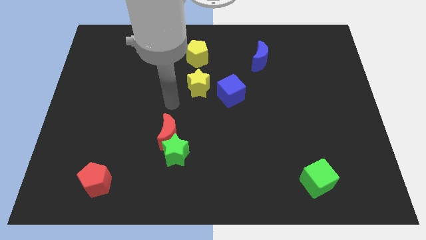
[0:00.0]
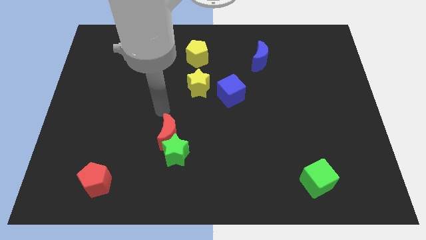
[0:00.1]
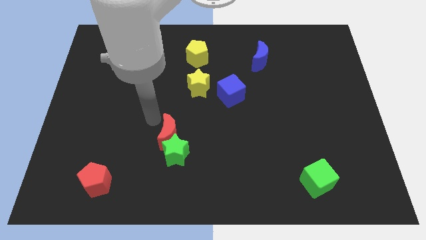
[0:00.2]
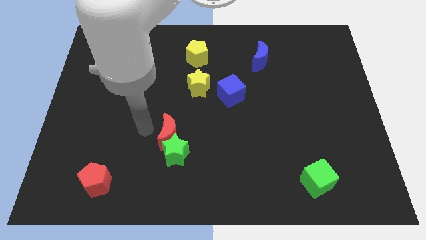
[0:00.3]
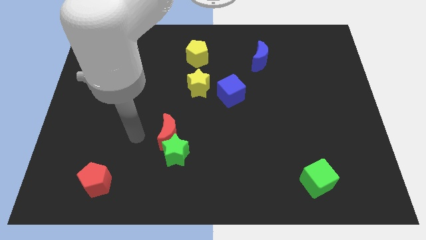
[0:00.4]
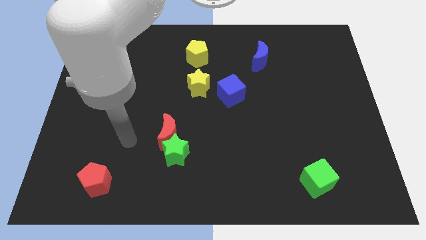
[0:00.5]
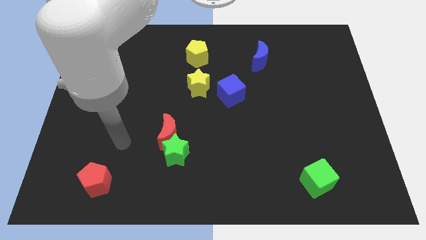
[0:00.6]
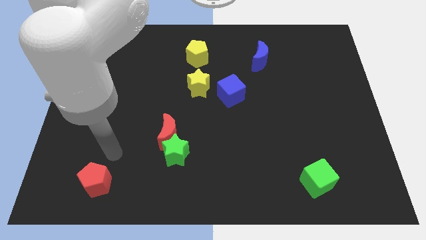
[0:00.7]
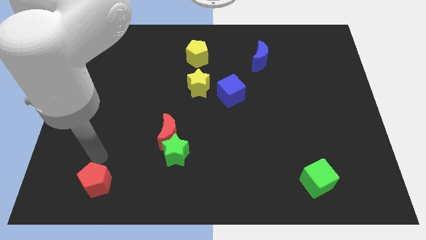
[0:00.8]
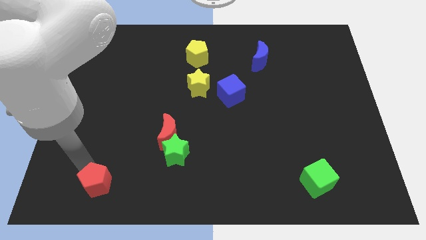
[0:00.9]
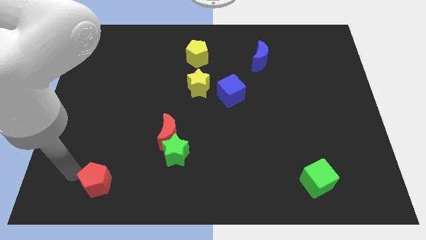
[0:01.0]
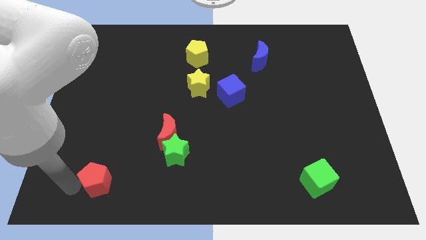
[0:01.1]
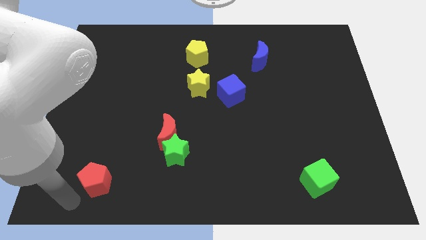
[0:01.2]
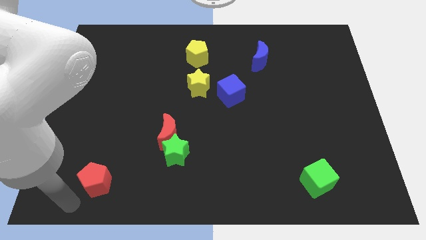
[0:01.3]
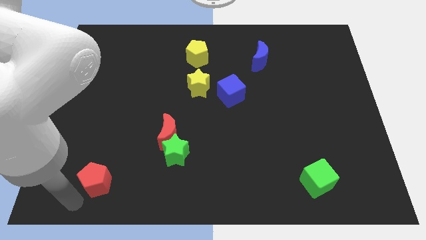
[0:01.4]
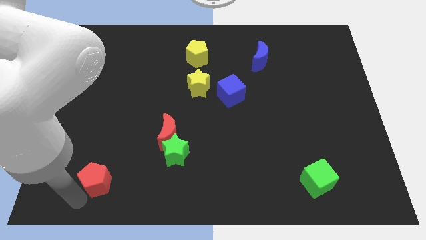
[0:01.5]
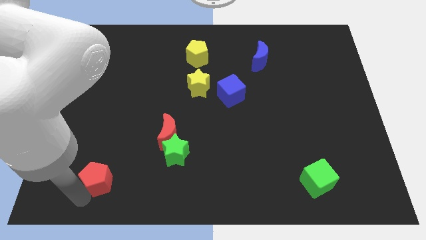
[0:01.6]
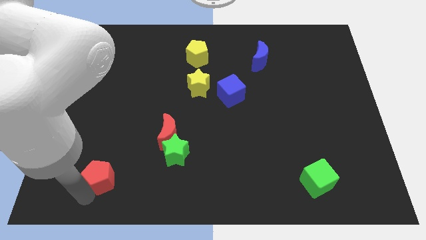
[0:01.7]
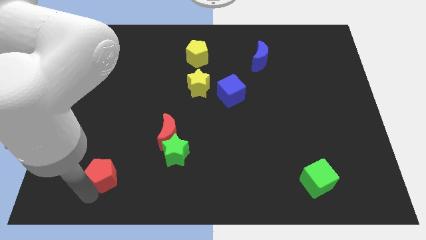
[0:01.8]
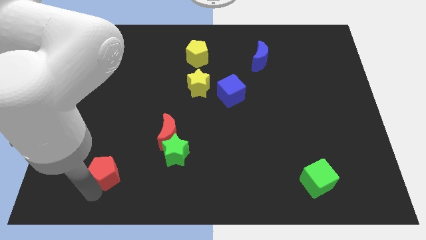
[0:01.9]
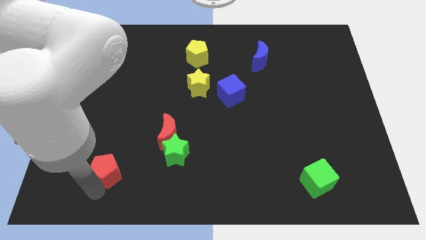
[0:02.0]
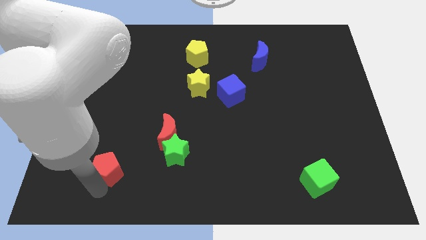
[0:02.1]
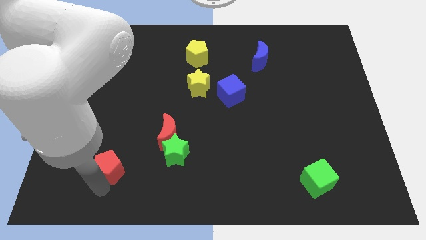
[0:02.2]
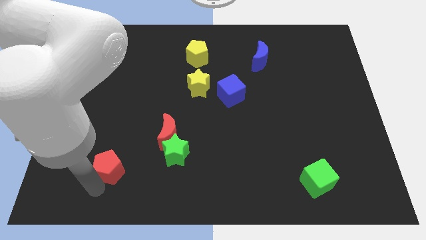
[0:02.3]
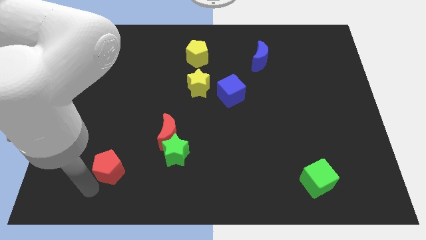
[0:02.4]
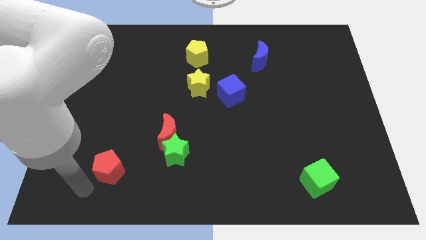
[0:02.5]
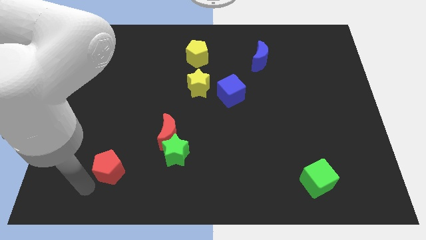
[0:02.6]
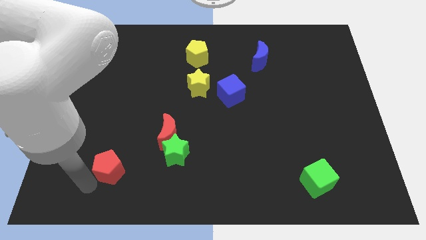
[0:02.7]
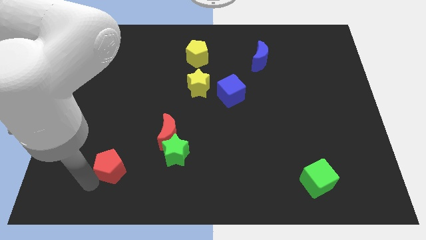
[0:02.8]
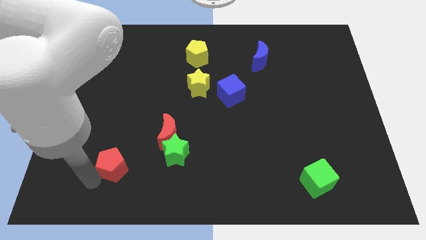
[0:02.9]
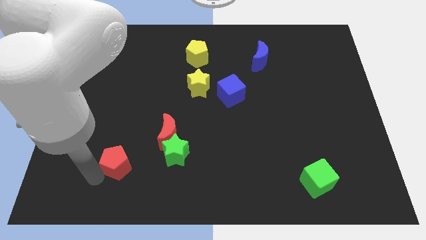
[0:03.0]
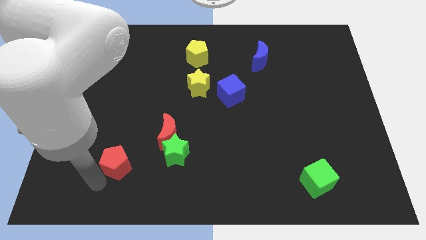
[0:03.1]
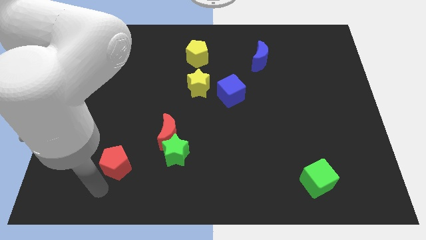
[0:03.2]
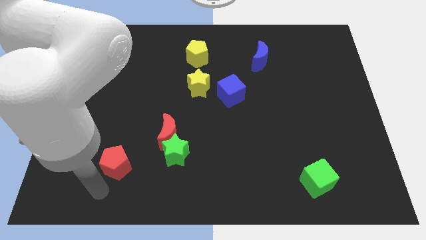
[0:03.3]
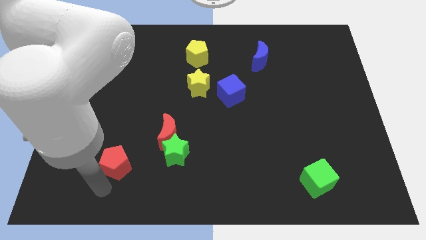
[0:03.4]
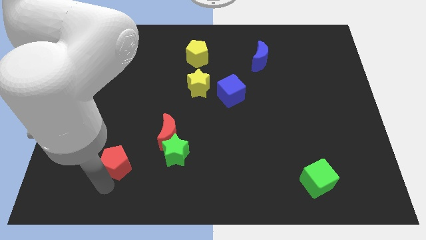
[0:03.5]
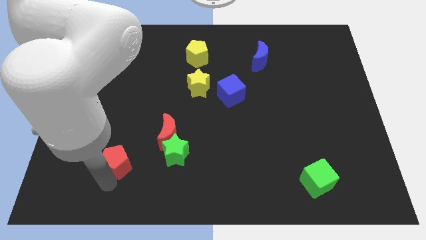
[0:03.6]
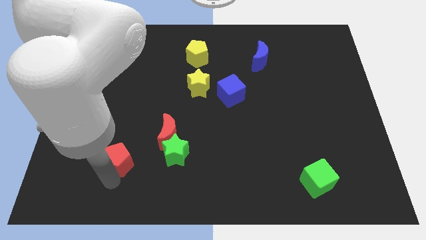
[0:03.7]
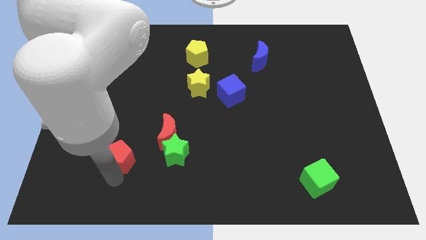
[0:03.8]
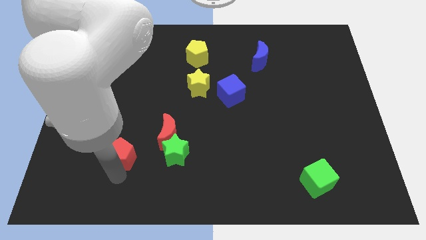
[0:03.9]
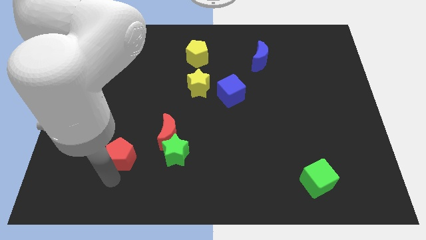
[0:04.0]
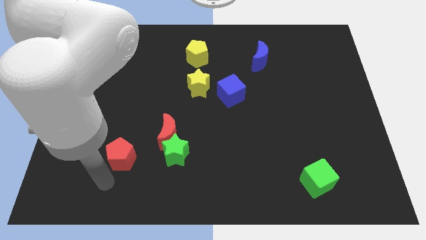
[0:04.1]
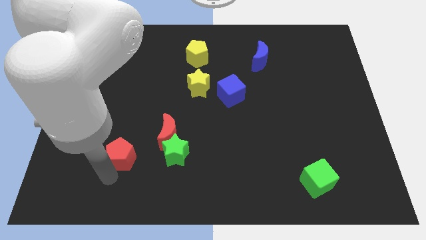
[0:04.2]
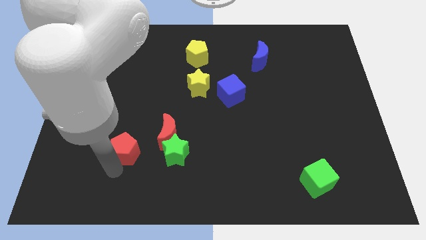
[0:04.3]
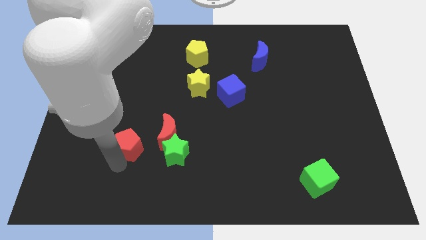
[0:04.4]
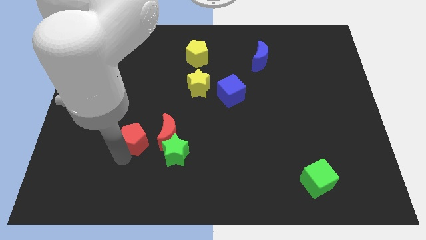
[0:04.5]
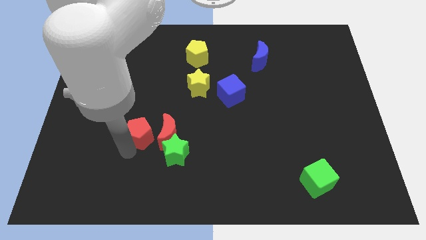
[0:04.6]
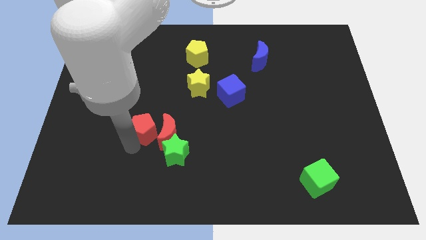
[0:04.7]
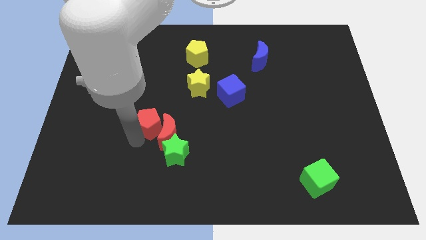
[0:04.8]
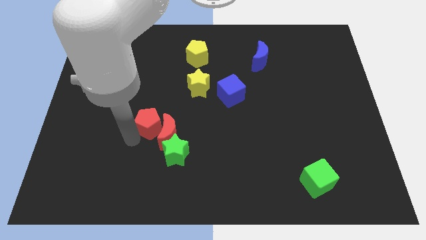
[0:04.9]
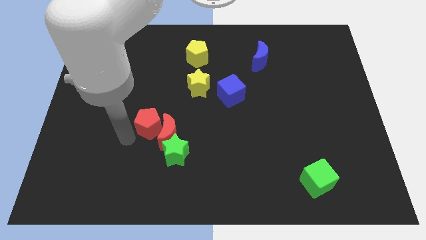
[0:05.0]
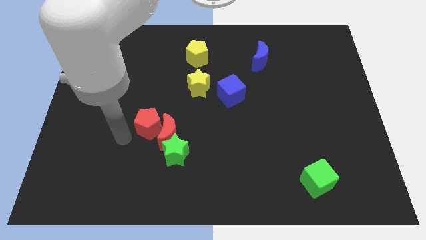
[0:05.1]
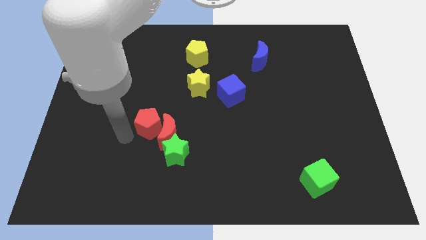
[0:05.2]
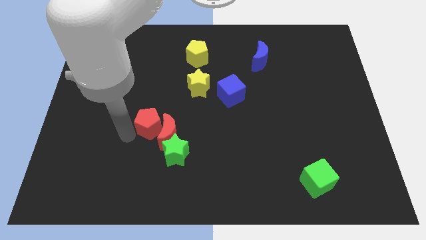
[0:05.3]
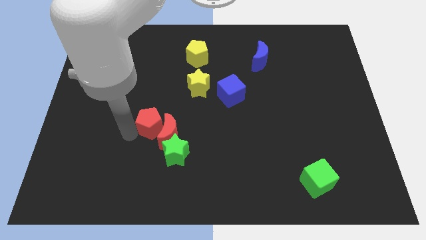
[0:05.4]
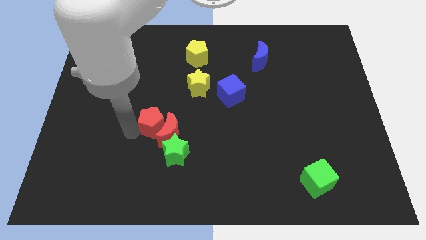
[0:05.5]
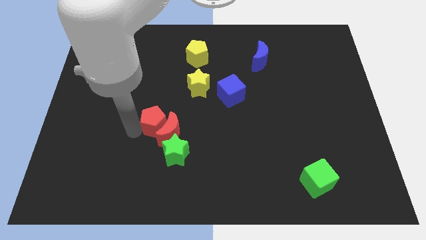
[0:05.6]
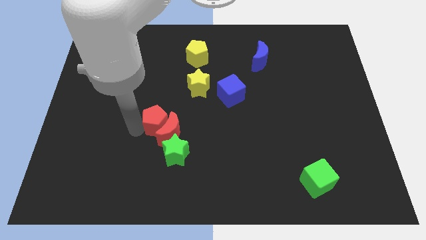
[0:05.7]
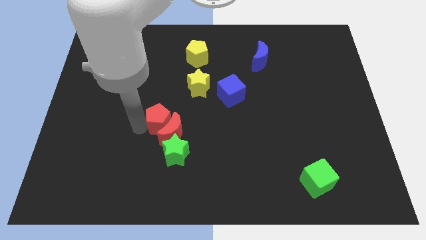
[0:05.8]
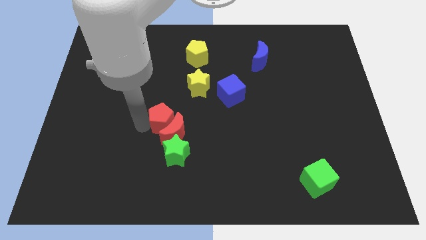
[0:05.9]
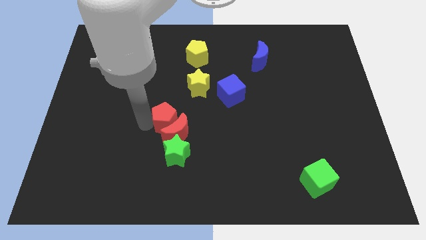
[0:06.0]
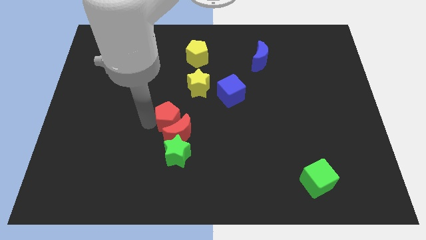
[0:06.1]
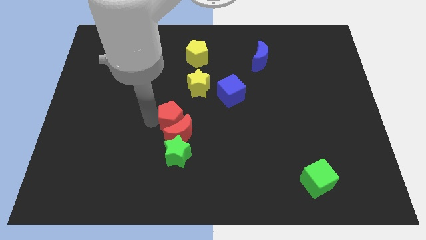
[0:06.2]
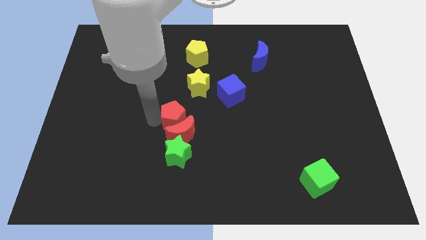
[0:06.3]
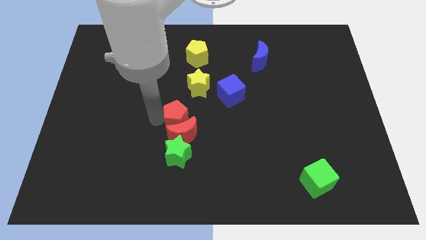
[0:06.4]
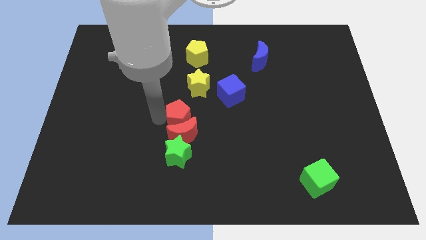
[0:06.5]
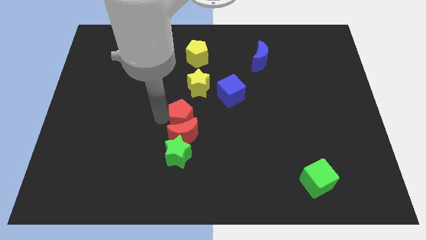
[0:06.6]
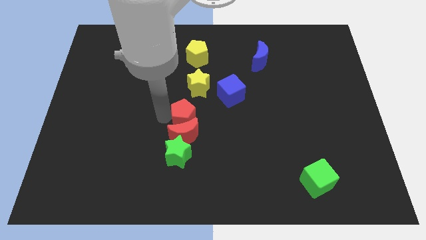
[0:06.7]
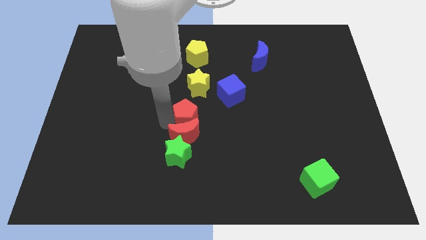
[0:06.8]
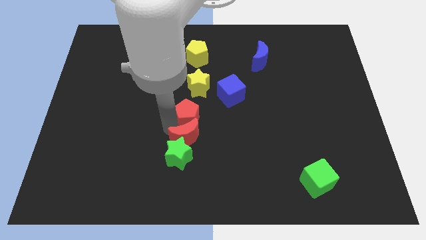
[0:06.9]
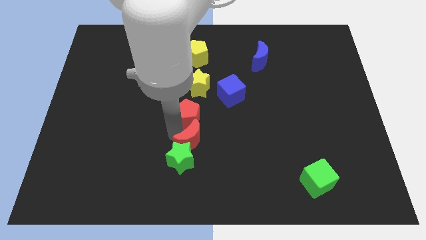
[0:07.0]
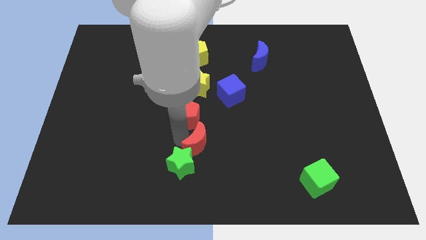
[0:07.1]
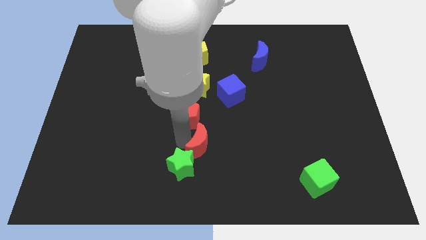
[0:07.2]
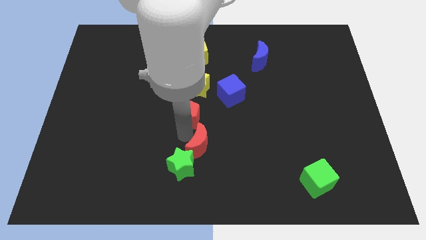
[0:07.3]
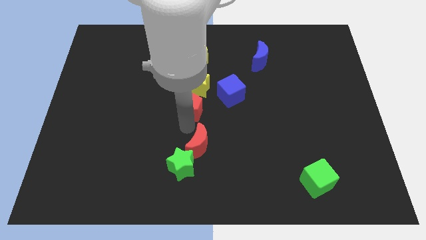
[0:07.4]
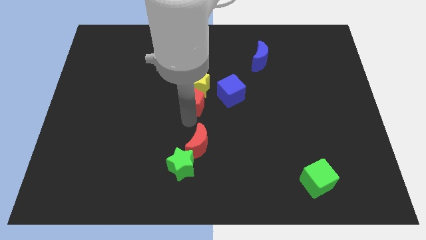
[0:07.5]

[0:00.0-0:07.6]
put the red pentagon to the bottom side of the yellow pentagon

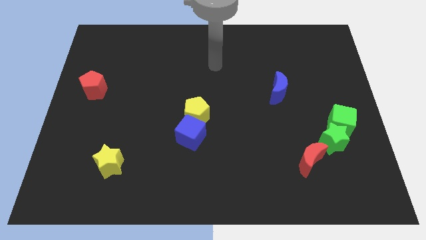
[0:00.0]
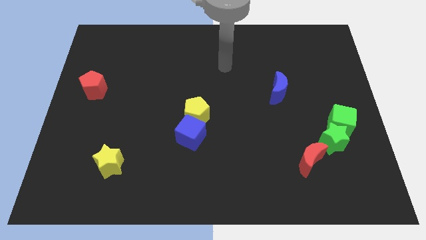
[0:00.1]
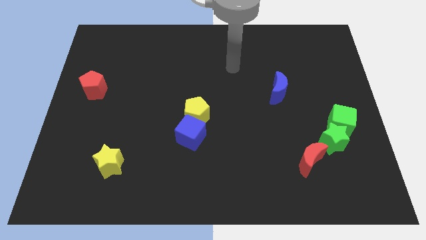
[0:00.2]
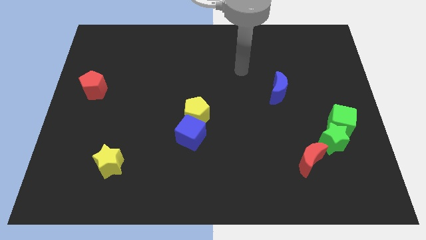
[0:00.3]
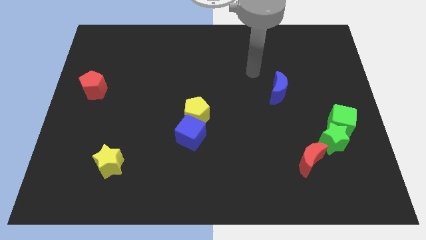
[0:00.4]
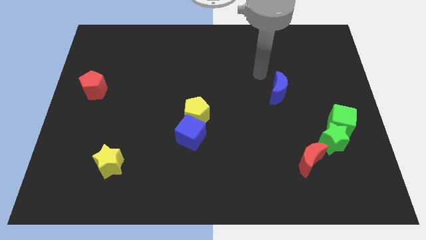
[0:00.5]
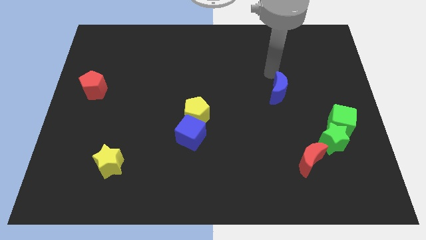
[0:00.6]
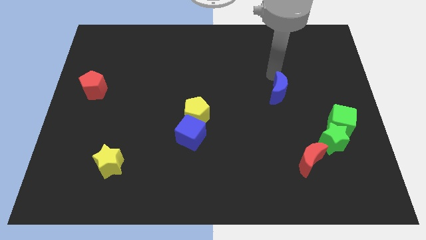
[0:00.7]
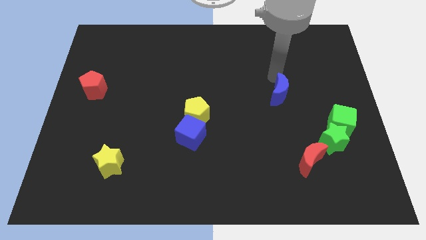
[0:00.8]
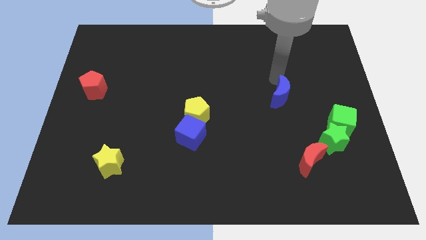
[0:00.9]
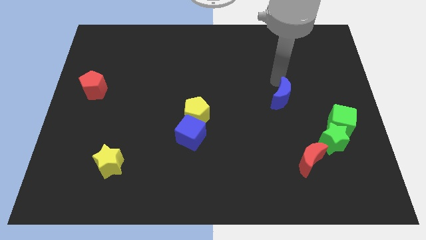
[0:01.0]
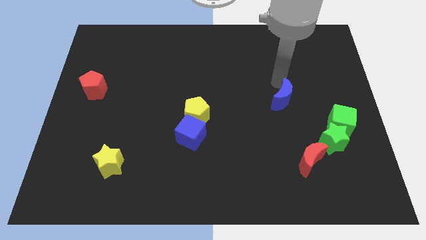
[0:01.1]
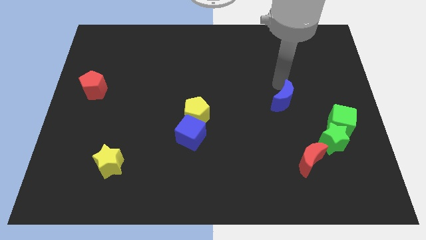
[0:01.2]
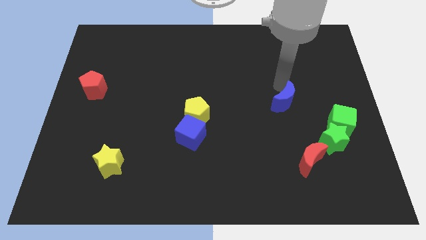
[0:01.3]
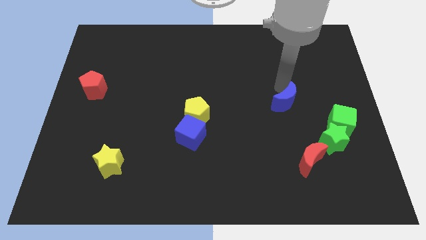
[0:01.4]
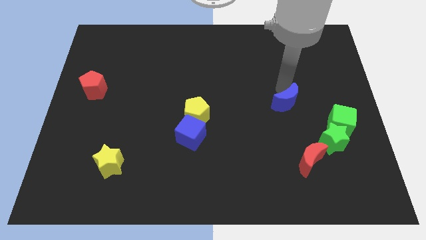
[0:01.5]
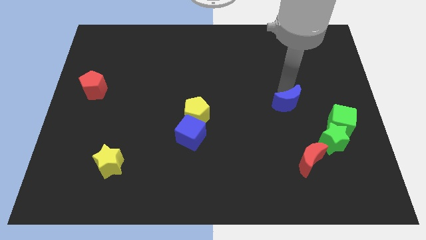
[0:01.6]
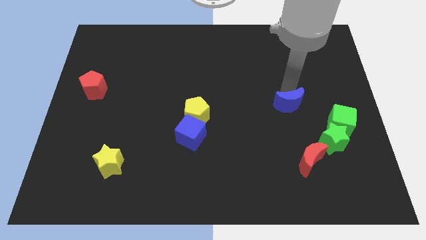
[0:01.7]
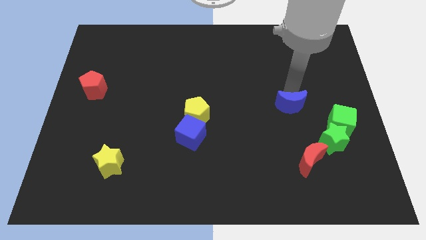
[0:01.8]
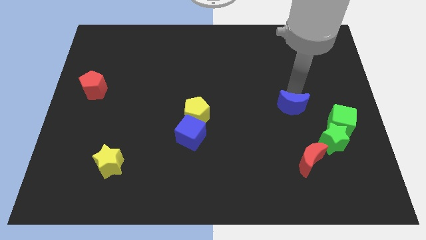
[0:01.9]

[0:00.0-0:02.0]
move the blue moon to the left of the green cube
